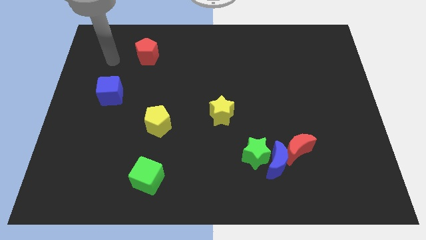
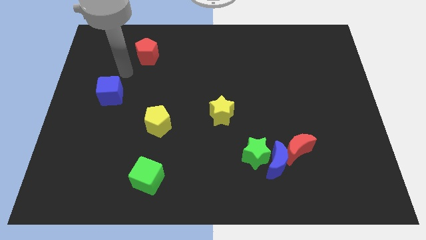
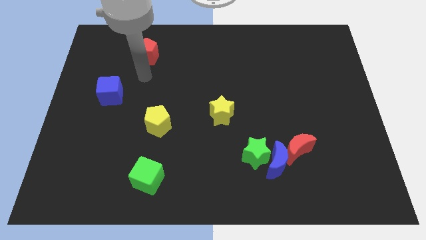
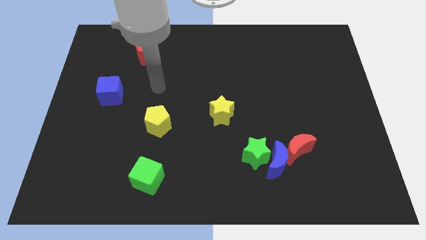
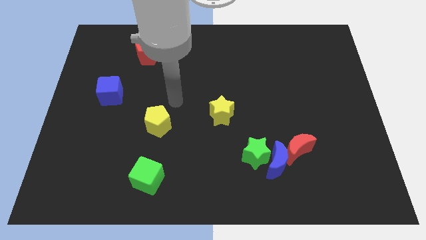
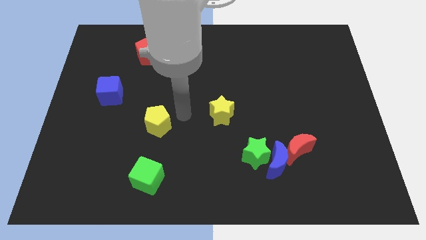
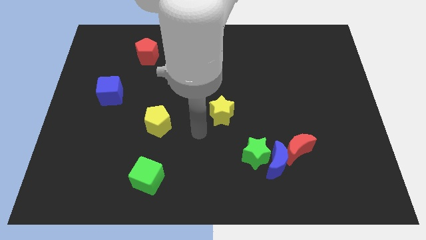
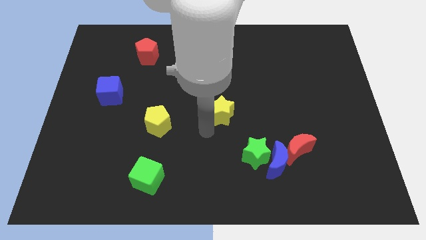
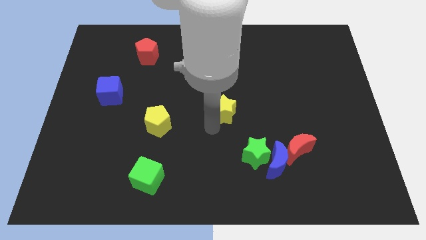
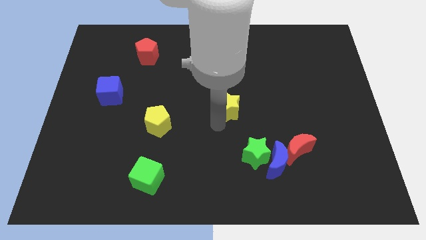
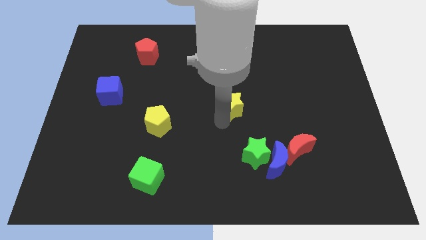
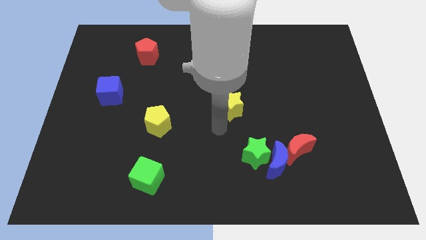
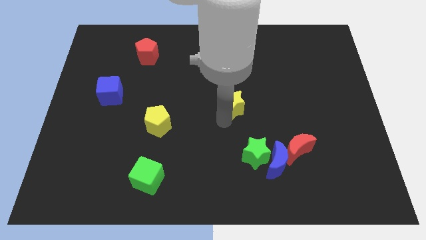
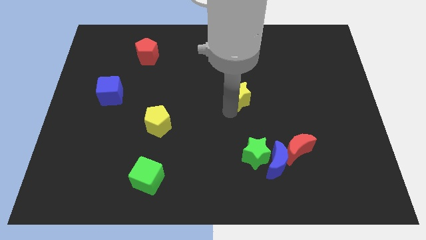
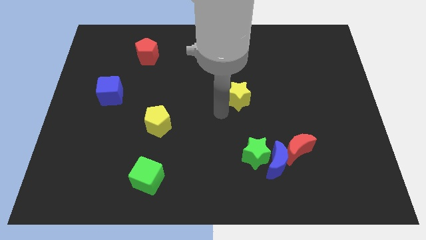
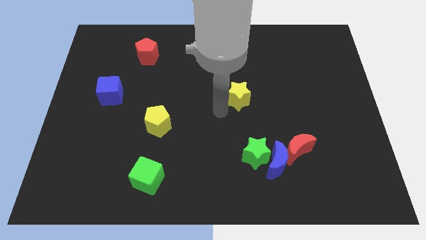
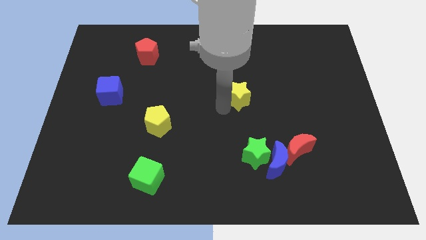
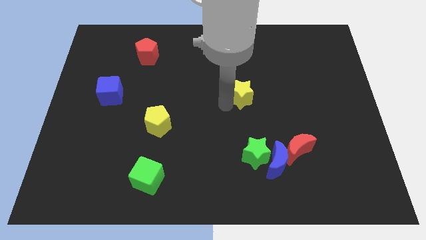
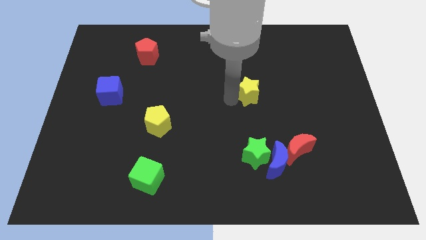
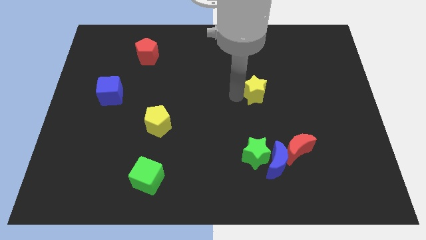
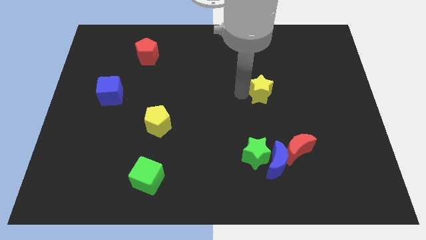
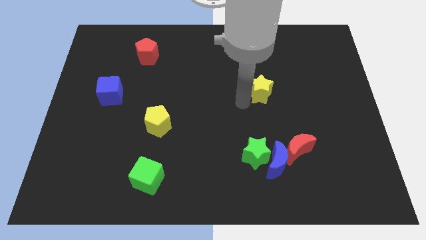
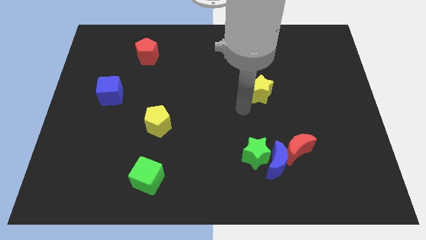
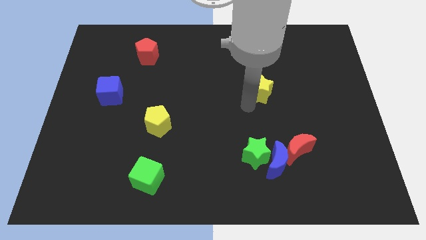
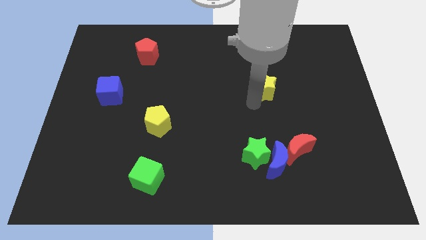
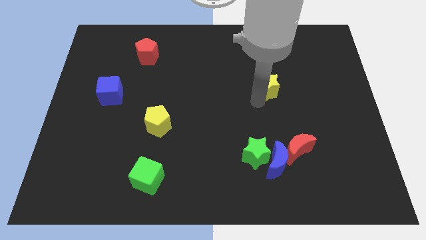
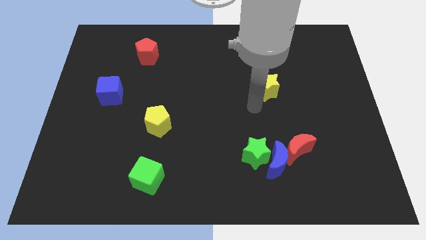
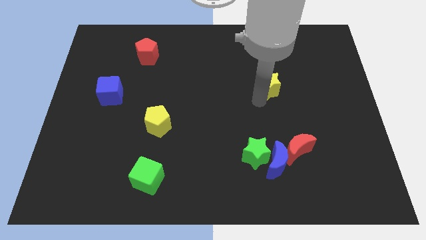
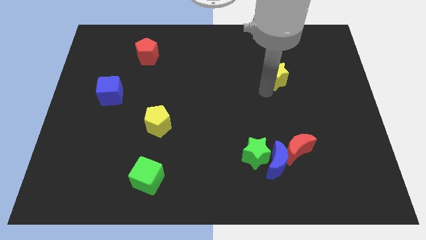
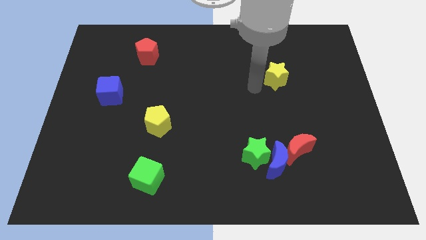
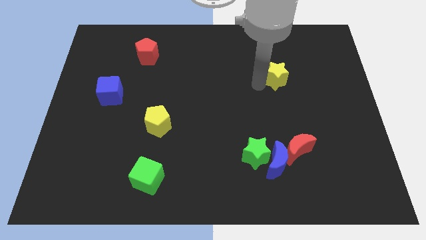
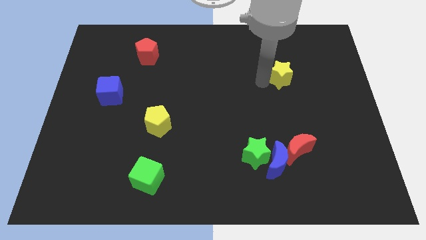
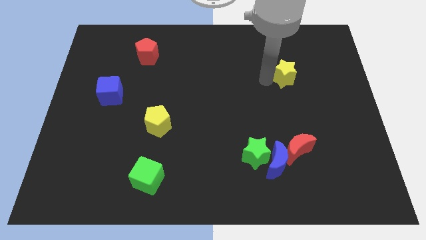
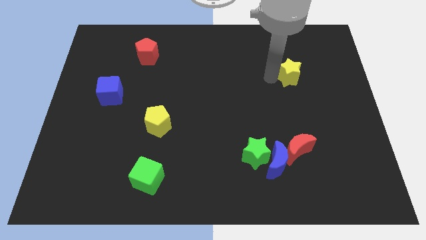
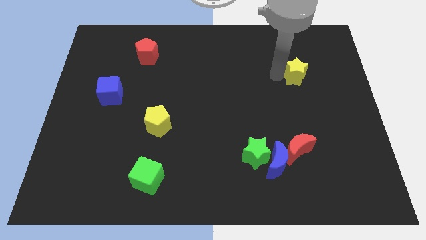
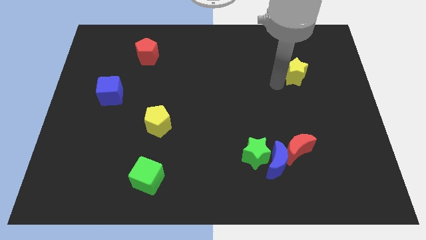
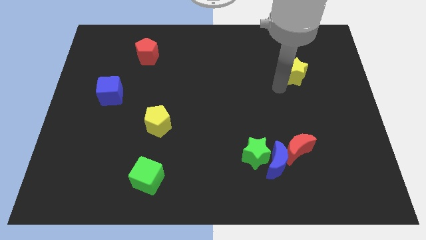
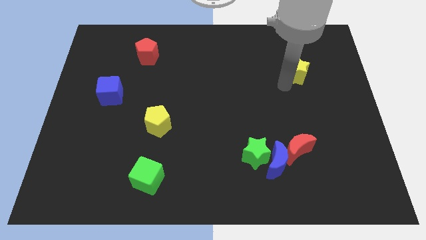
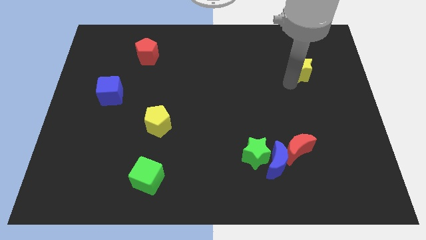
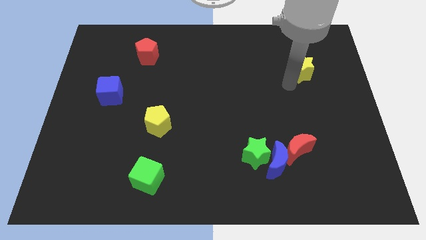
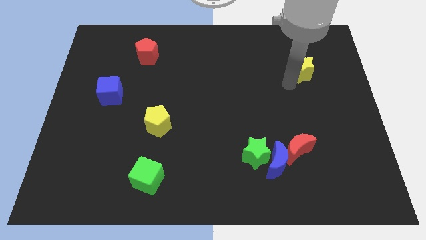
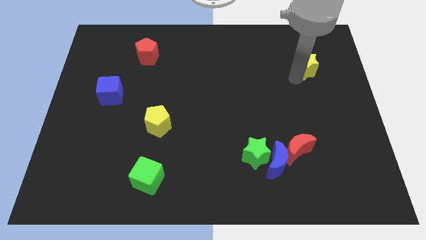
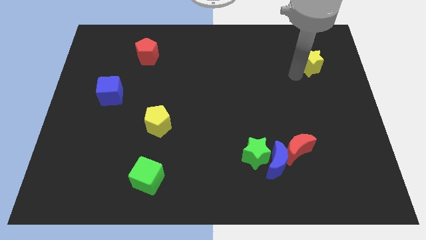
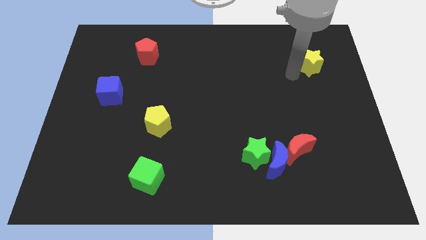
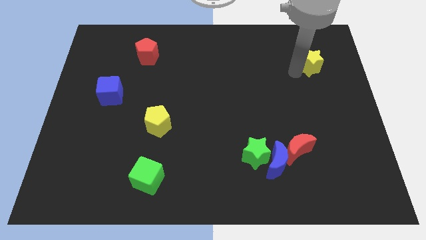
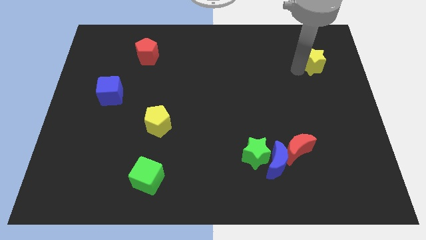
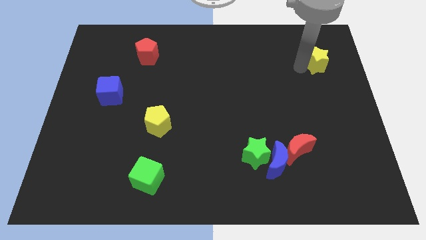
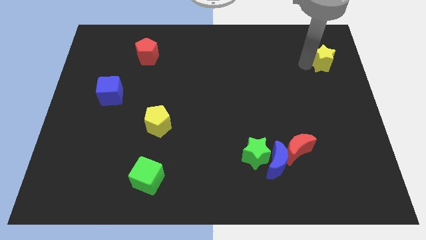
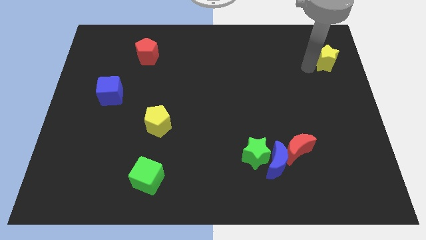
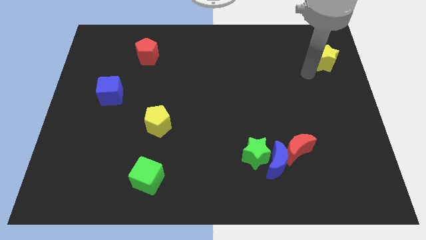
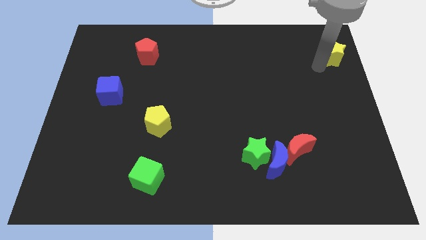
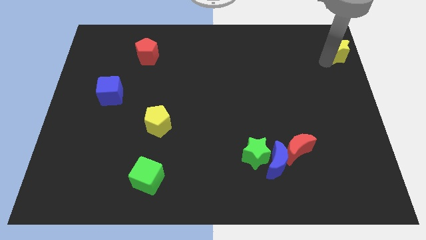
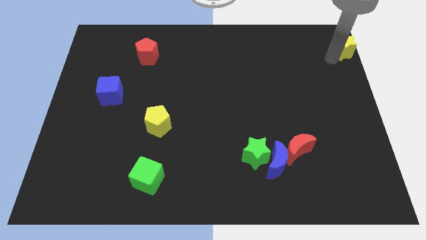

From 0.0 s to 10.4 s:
put the yellow star to the top right

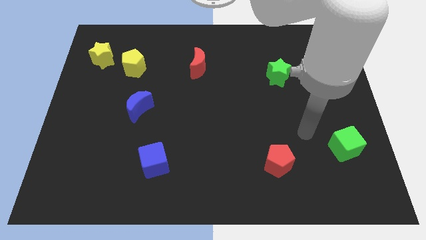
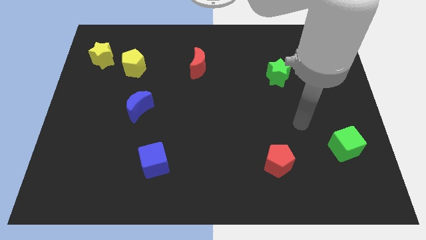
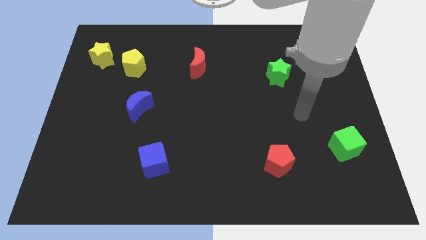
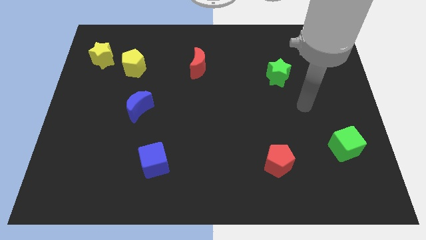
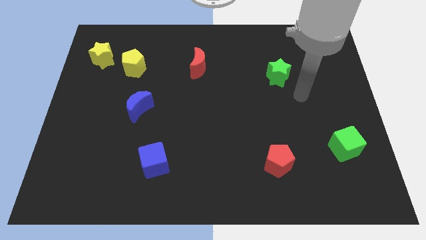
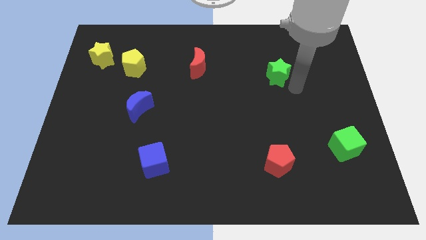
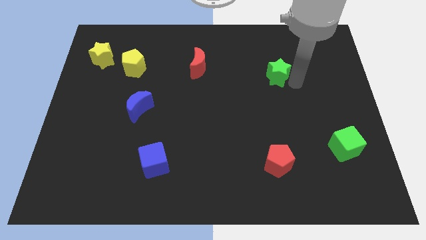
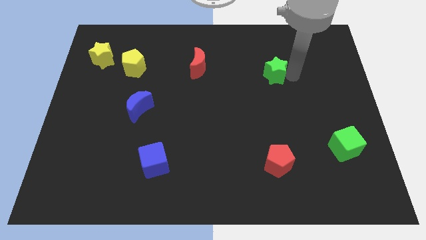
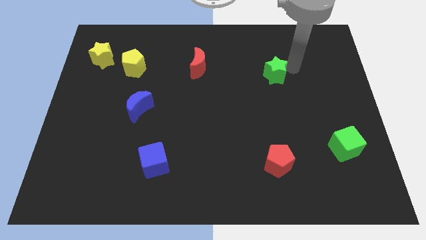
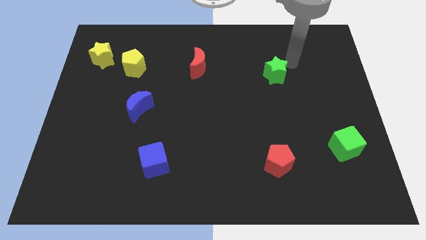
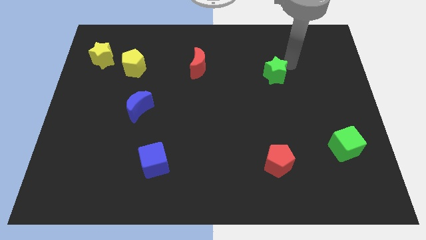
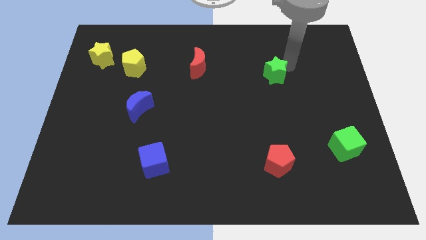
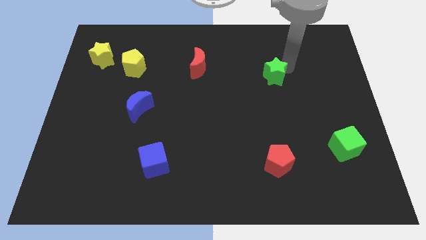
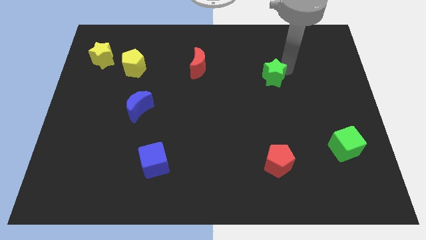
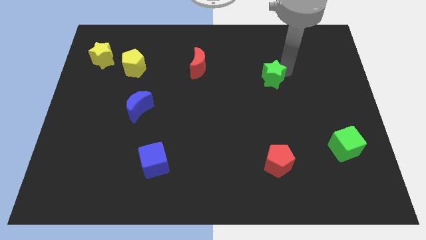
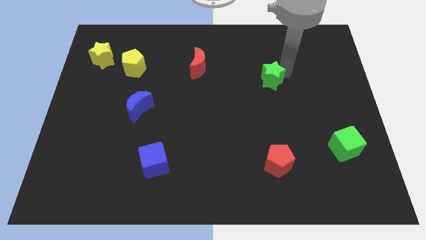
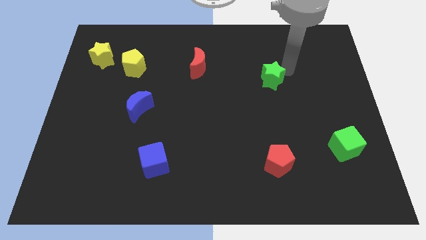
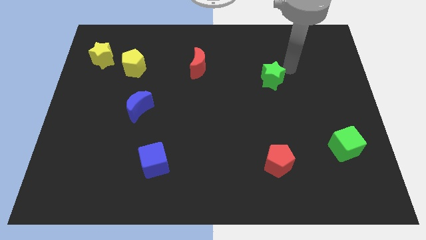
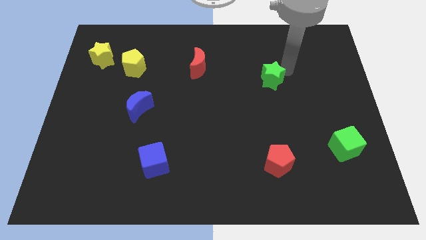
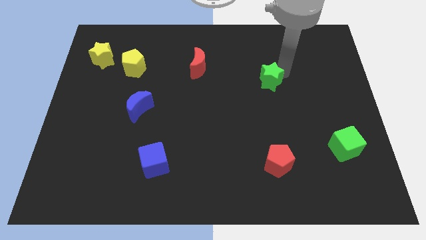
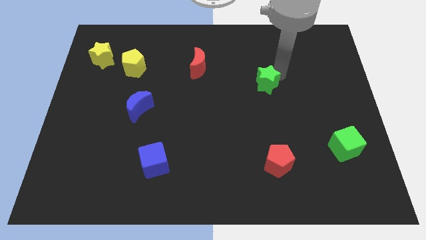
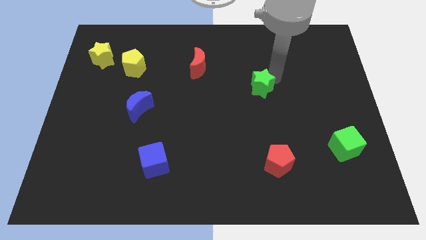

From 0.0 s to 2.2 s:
push the green star to the middle
